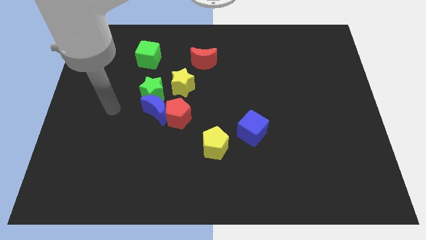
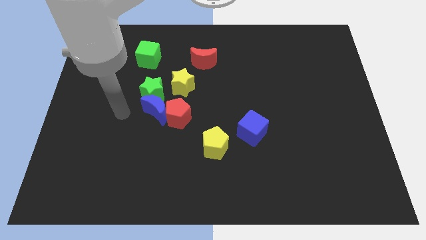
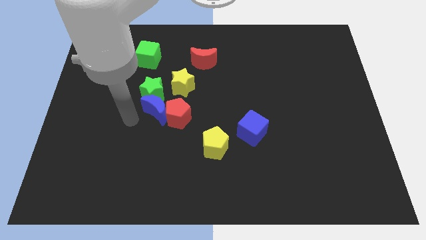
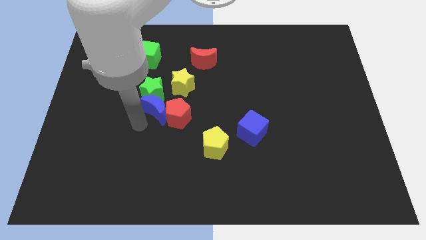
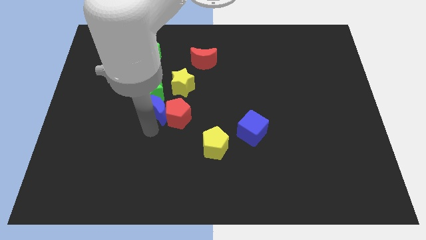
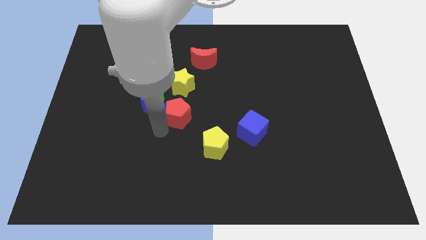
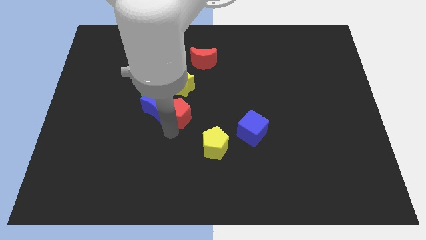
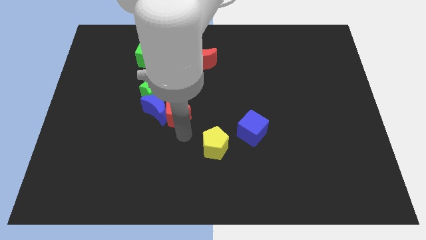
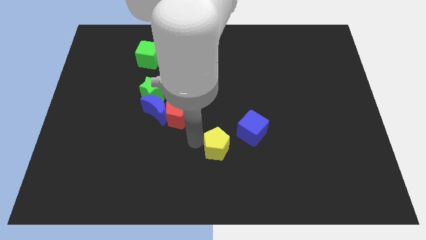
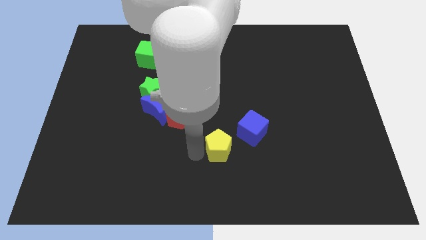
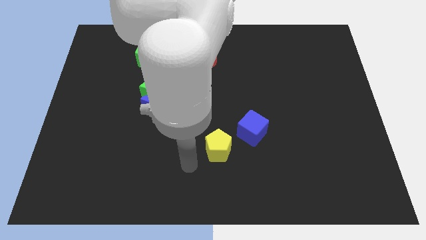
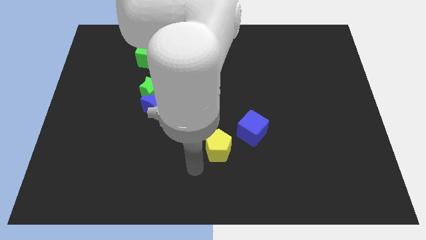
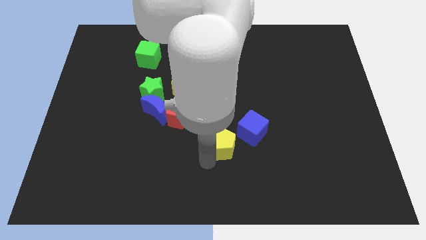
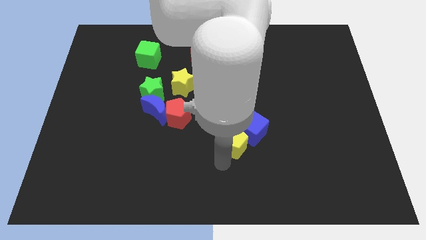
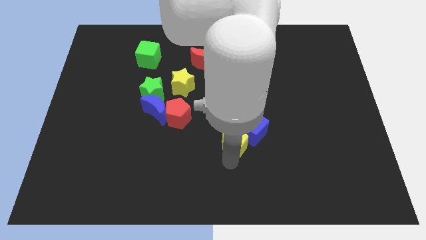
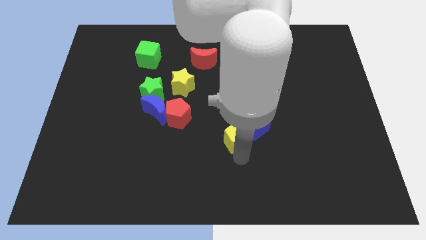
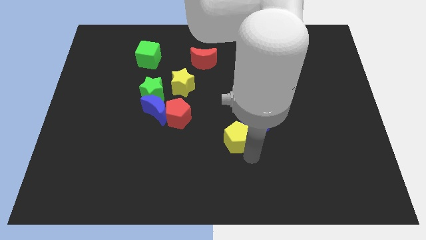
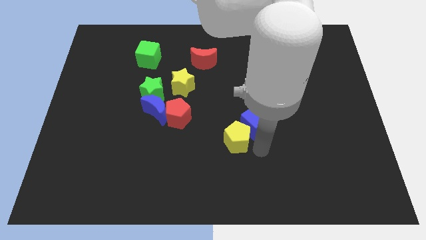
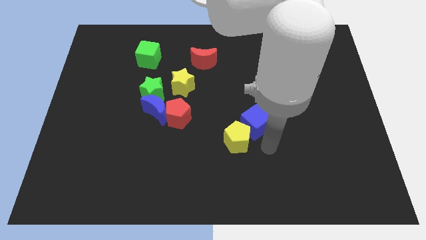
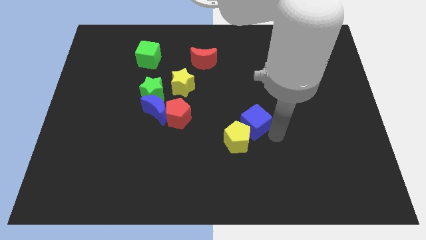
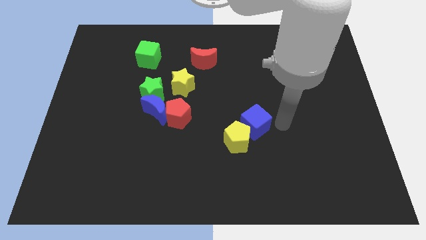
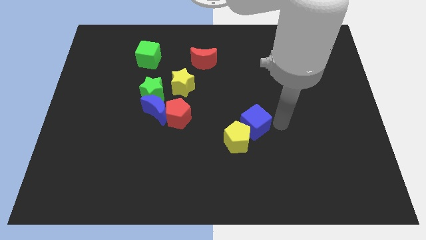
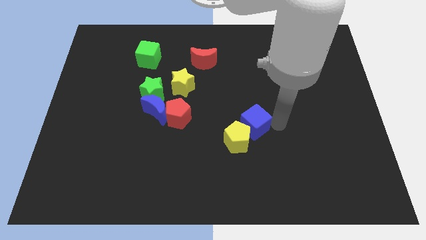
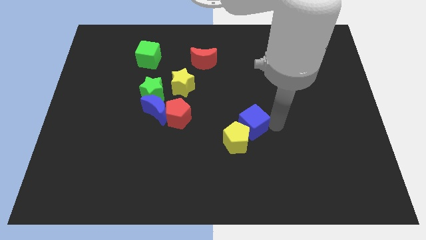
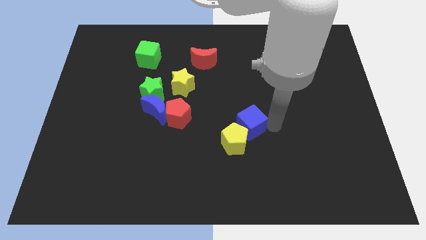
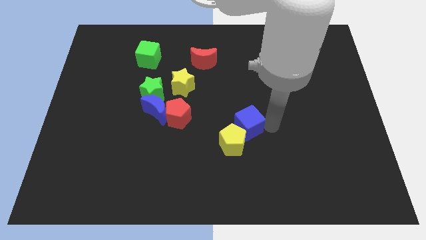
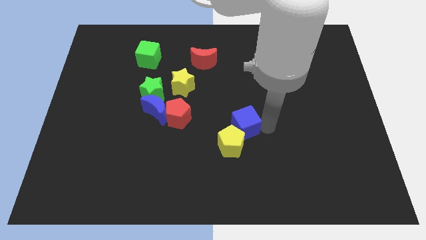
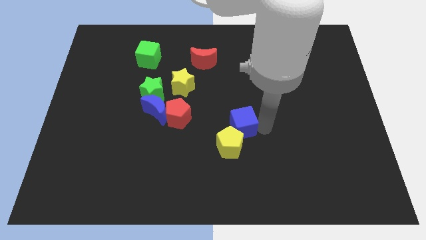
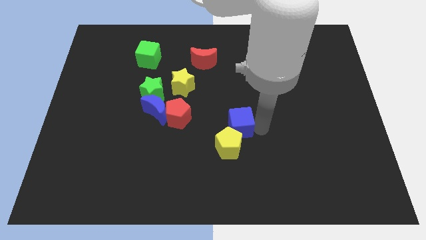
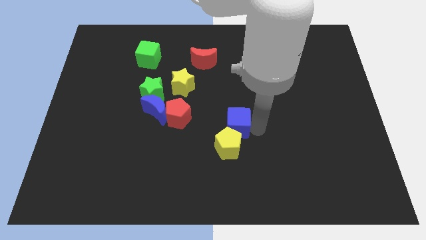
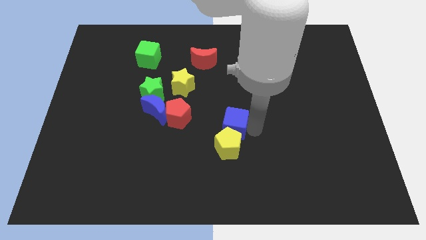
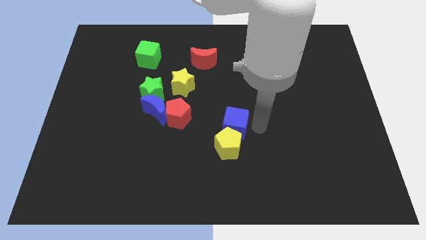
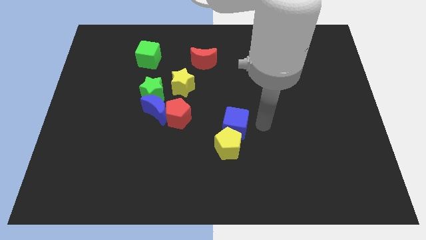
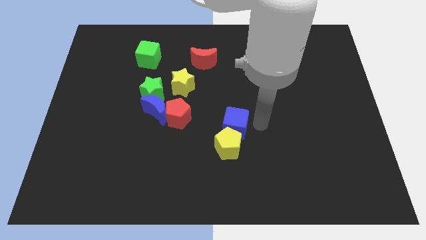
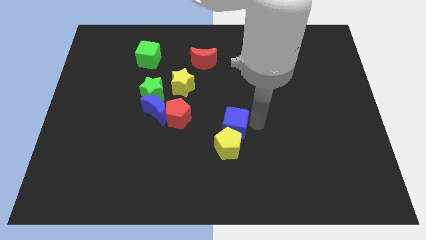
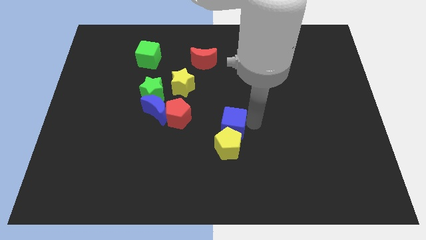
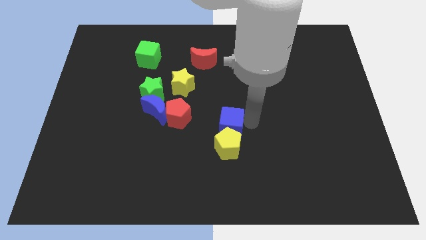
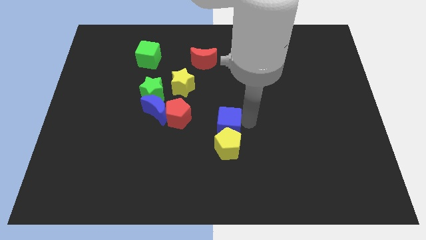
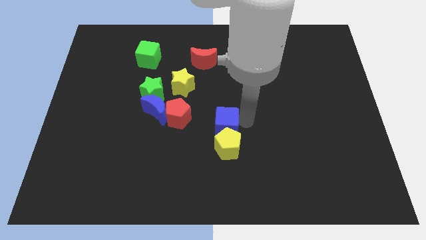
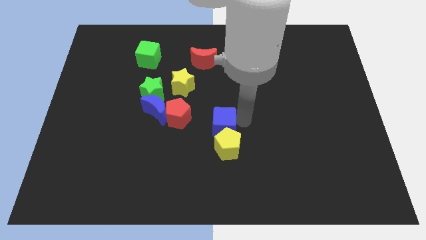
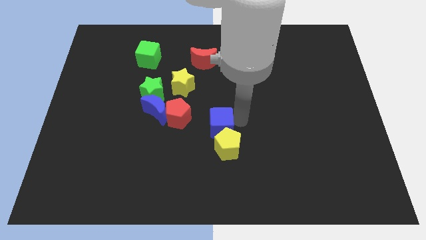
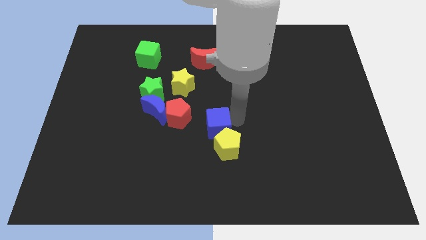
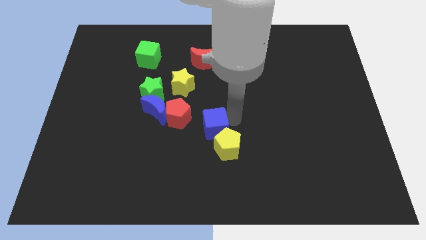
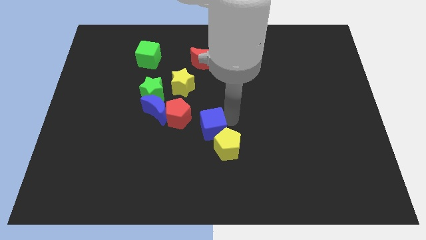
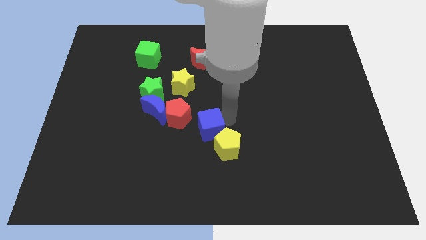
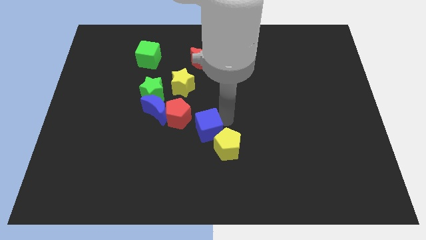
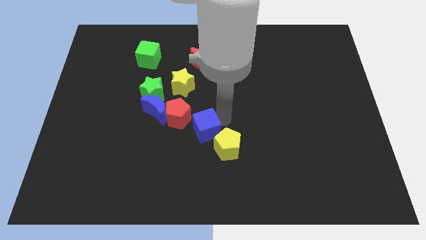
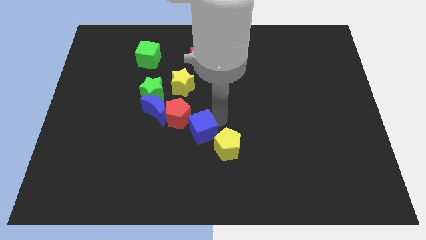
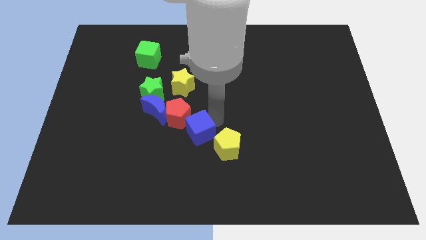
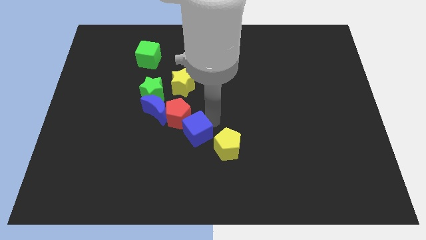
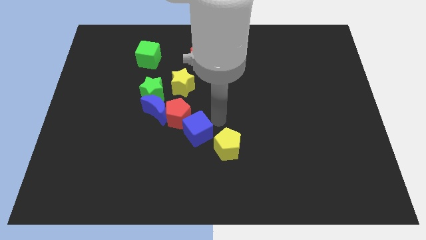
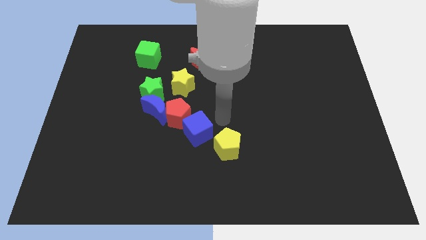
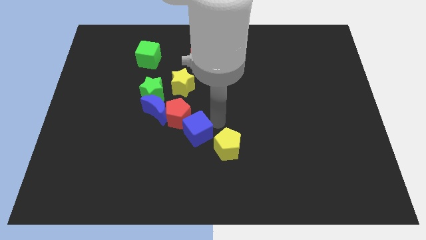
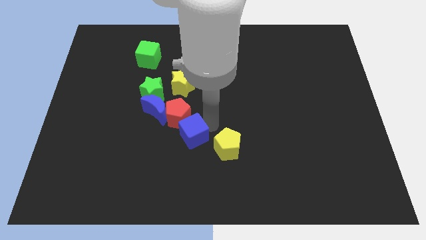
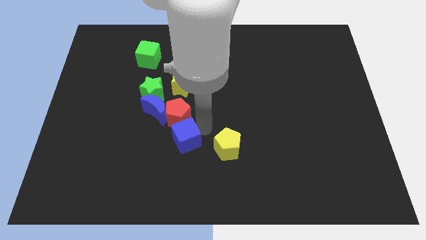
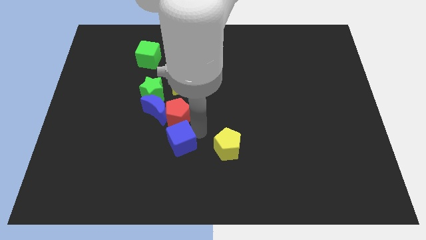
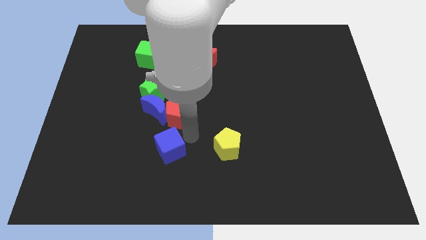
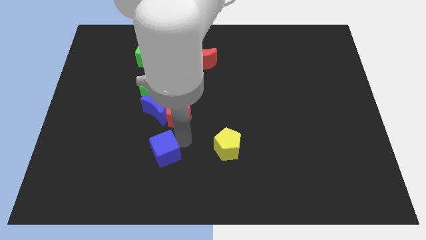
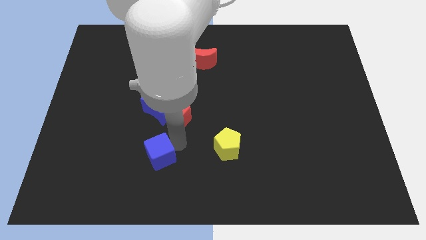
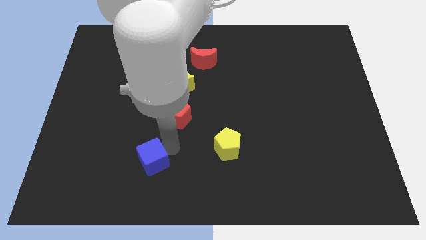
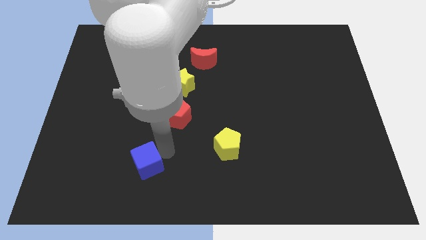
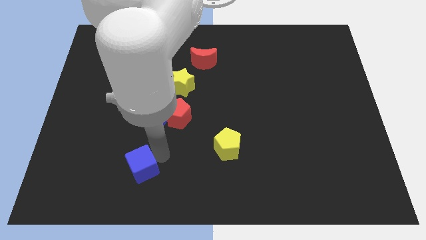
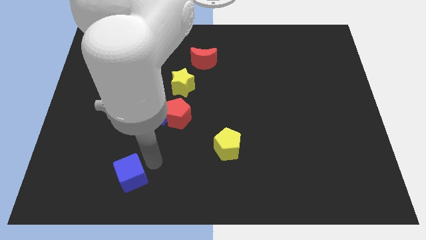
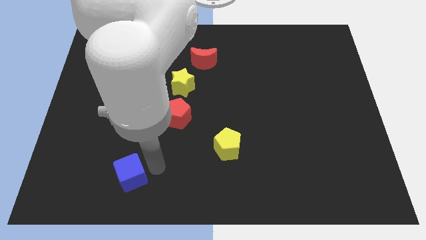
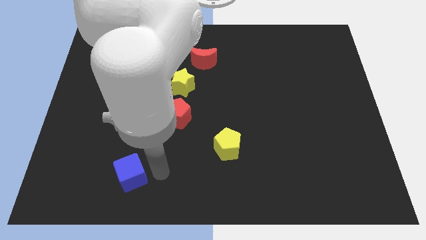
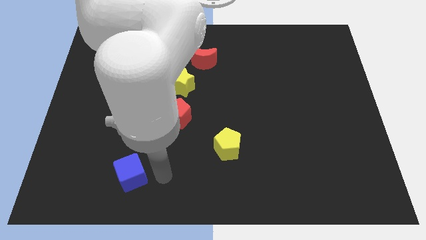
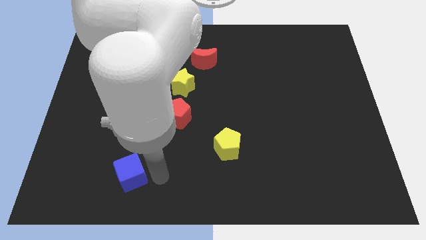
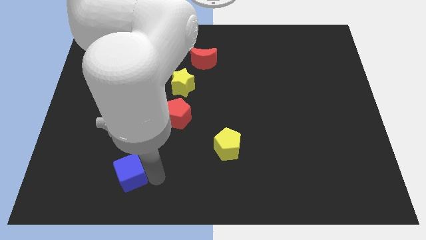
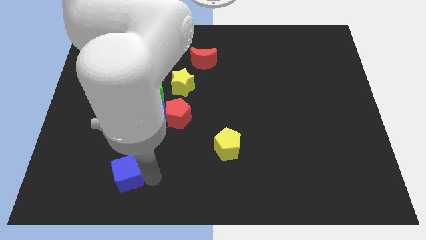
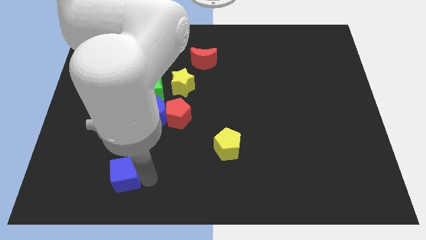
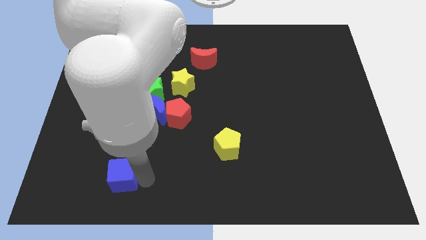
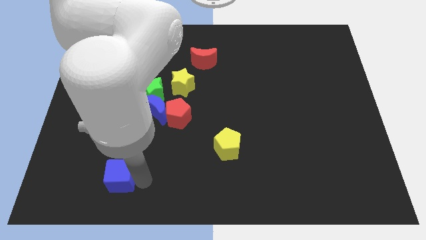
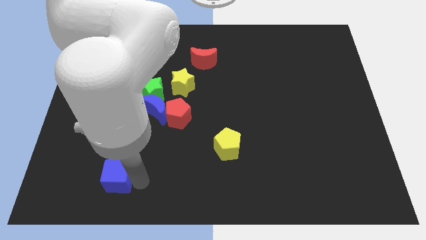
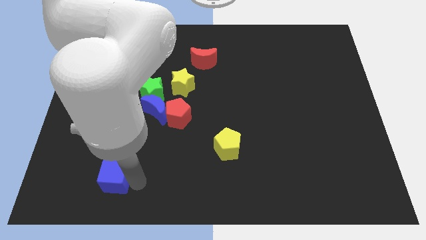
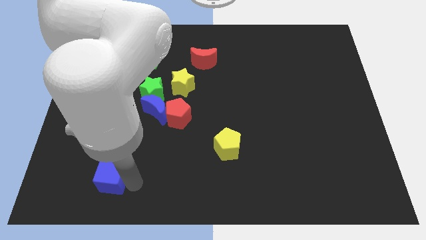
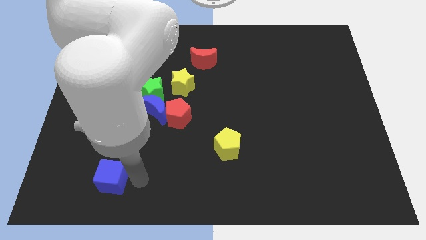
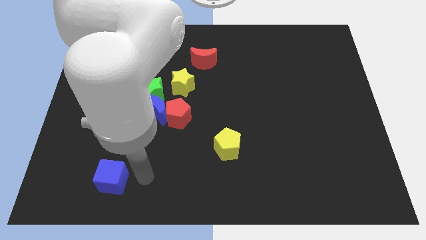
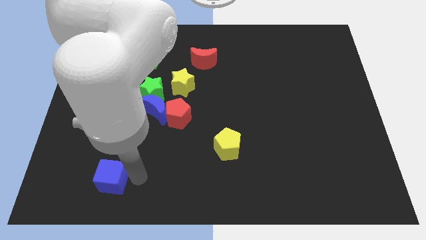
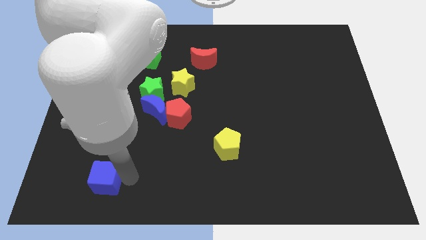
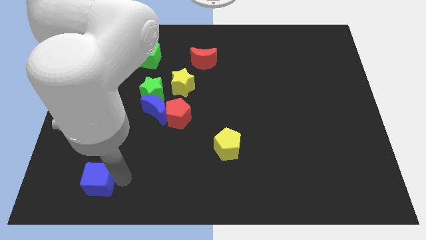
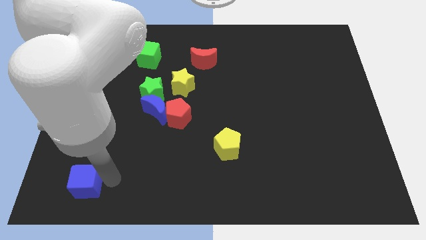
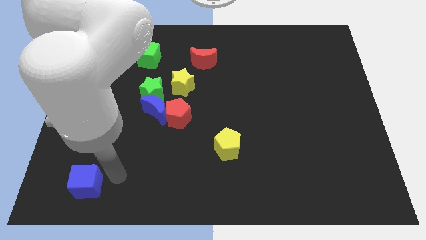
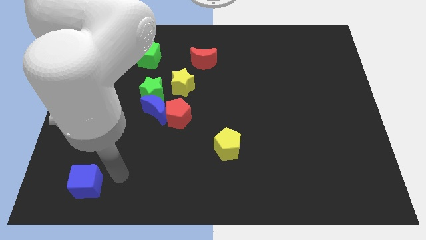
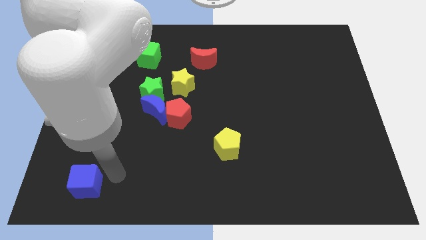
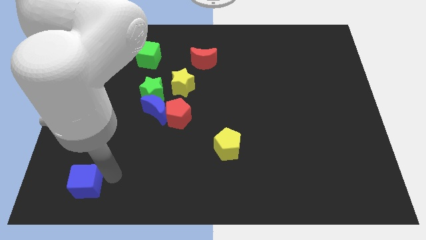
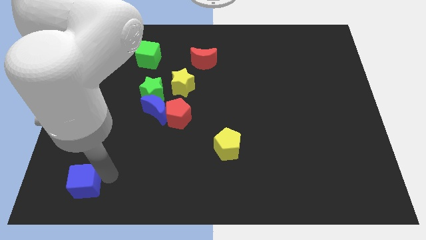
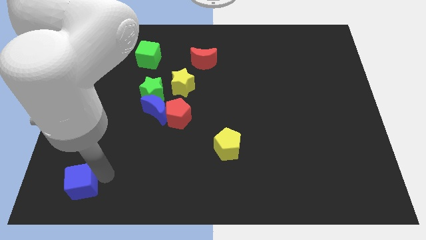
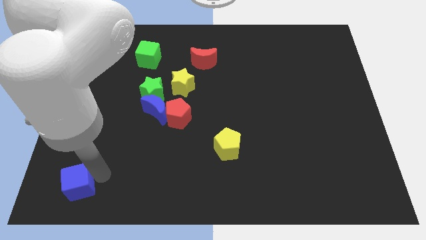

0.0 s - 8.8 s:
put the blue cube to the bottom left of the board
